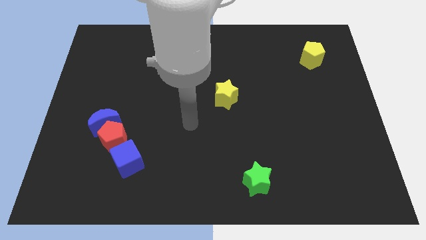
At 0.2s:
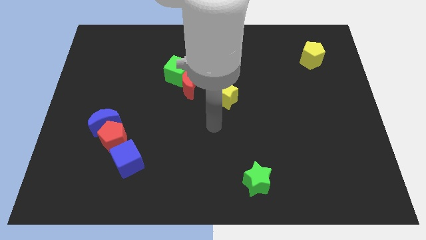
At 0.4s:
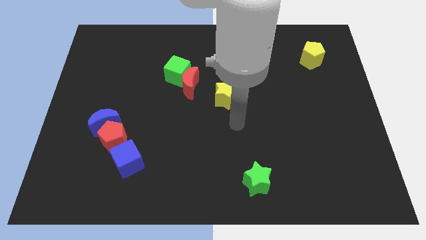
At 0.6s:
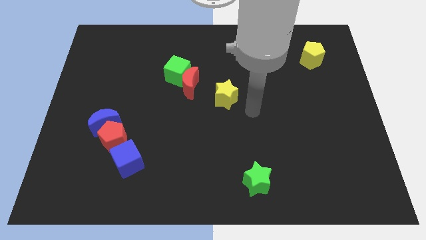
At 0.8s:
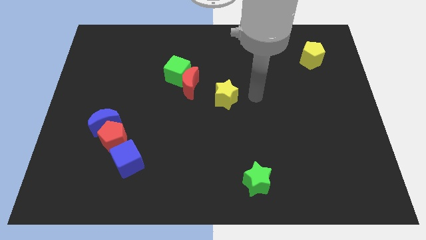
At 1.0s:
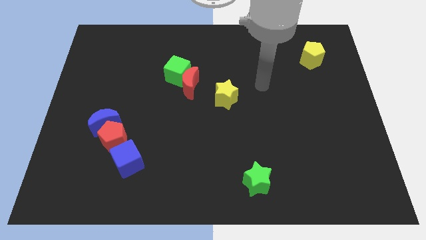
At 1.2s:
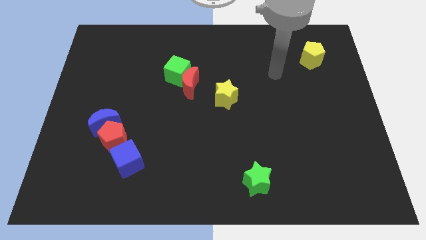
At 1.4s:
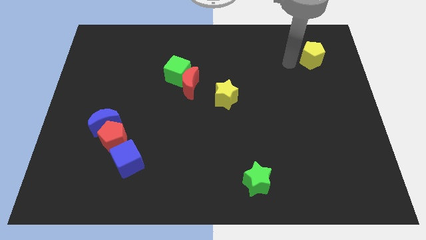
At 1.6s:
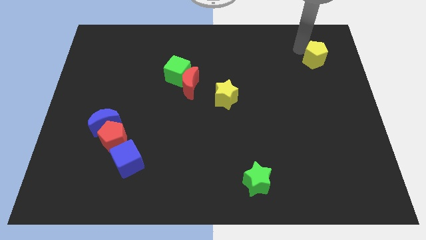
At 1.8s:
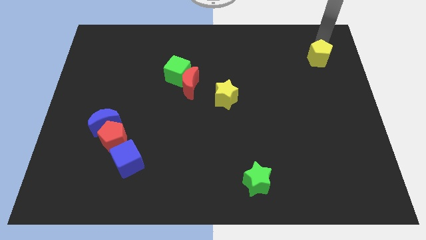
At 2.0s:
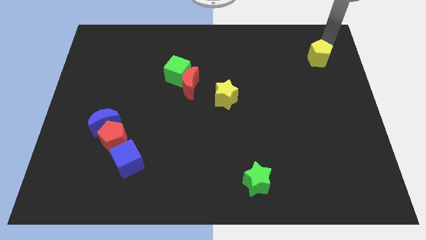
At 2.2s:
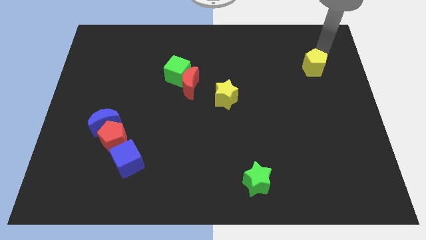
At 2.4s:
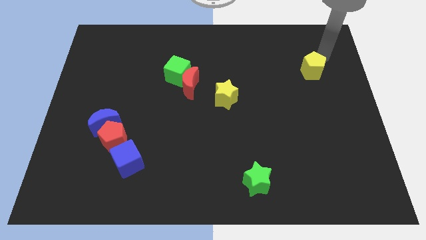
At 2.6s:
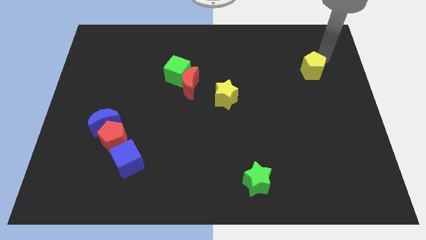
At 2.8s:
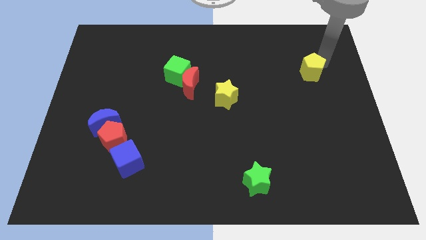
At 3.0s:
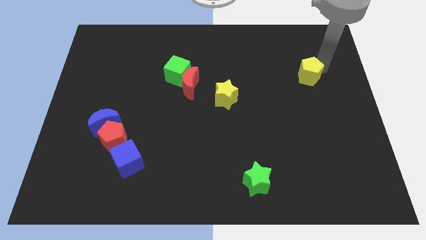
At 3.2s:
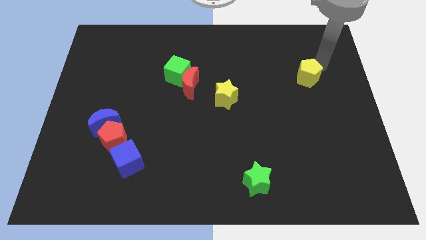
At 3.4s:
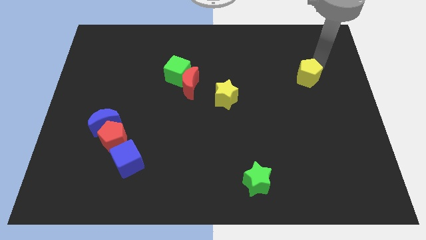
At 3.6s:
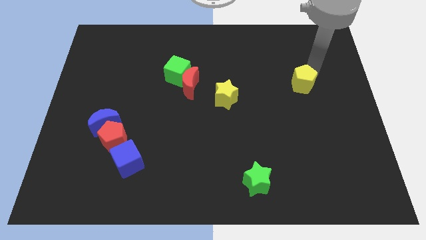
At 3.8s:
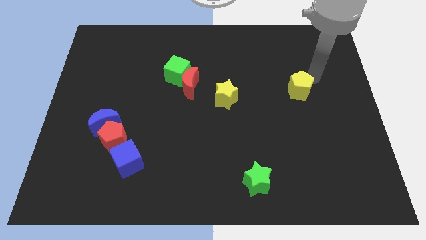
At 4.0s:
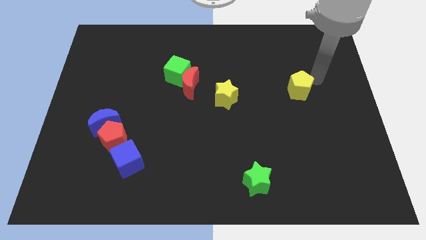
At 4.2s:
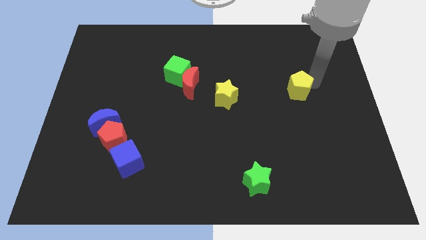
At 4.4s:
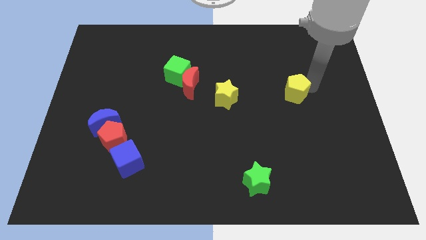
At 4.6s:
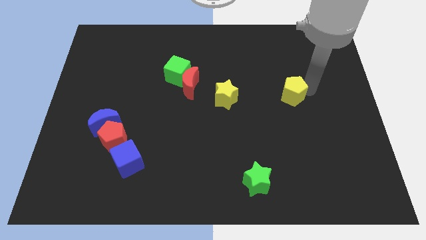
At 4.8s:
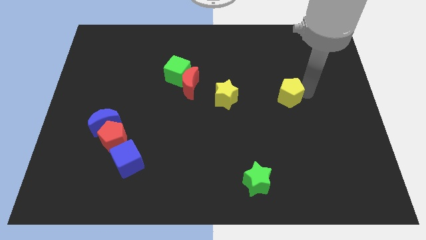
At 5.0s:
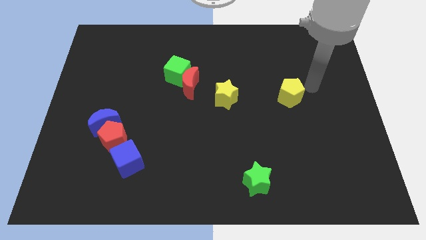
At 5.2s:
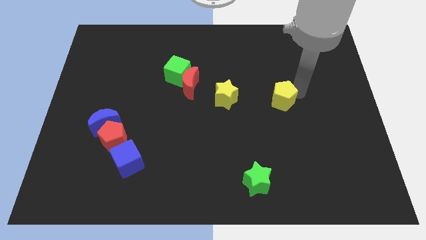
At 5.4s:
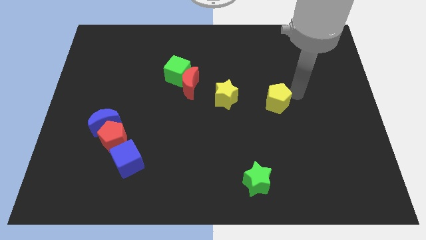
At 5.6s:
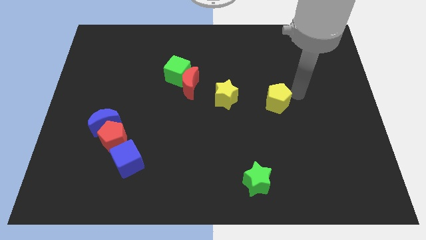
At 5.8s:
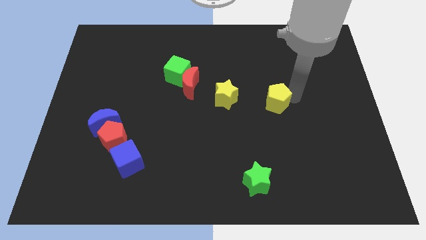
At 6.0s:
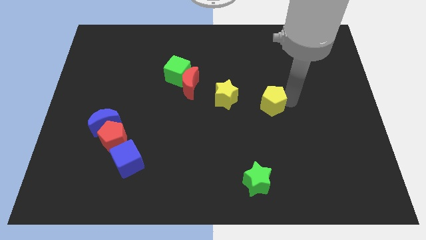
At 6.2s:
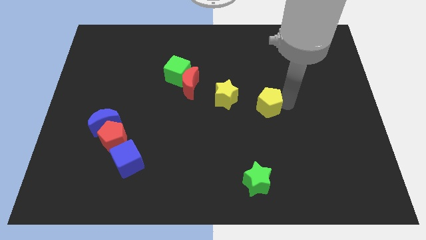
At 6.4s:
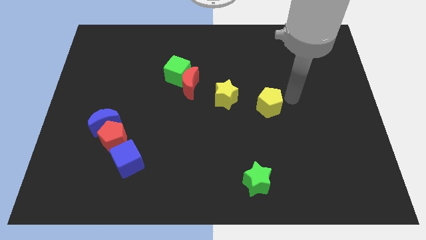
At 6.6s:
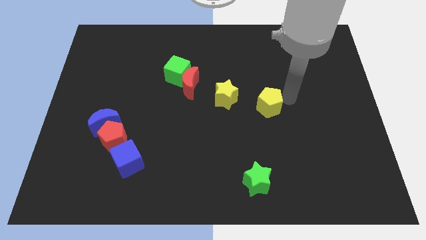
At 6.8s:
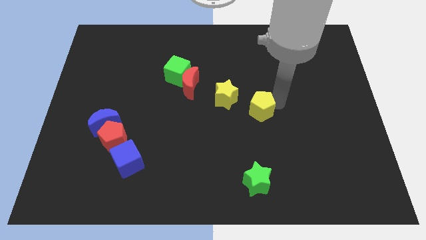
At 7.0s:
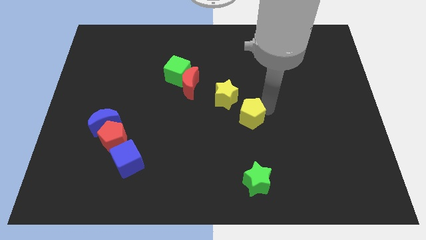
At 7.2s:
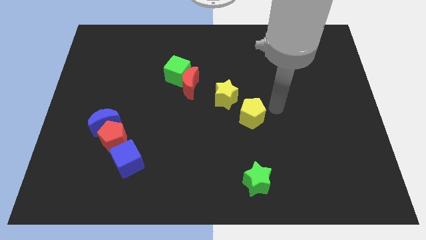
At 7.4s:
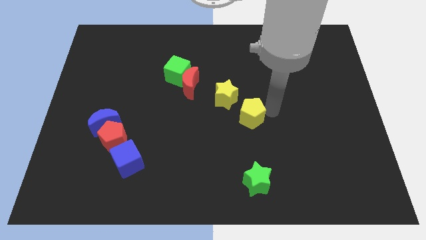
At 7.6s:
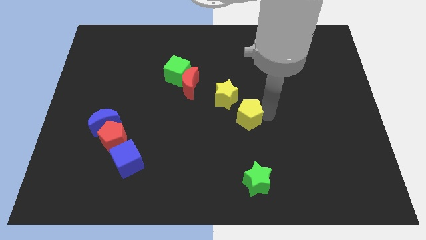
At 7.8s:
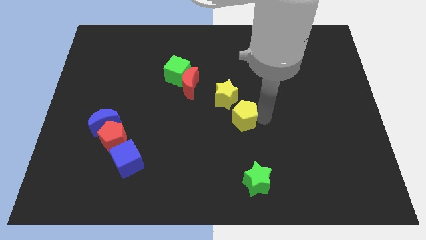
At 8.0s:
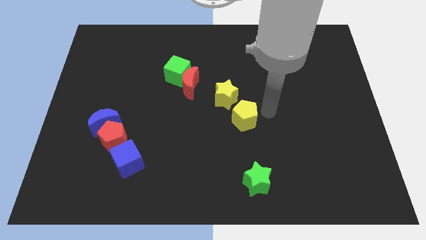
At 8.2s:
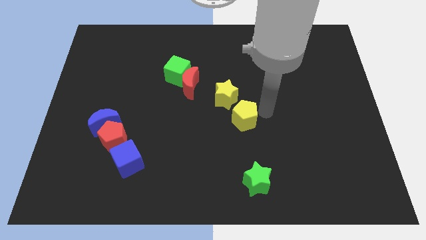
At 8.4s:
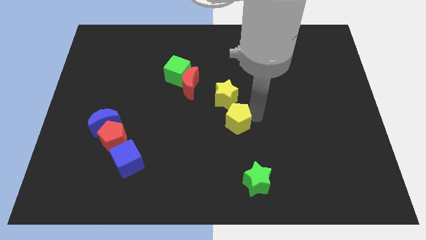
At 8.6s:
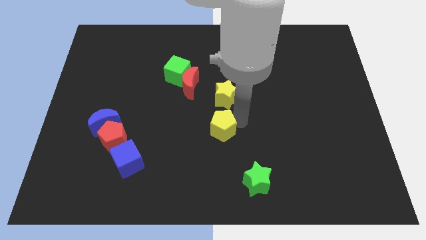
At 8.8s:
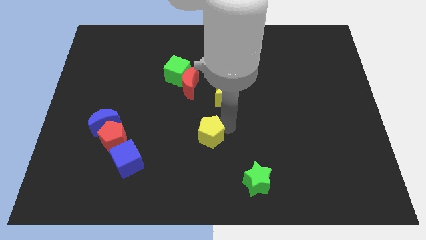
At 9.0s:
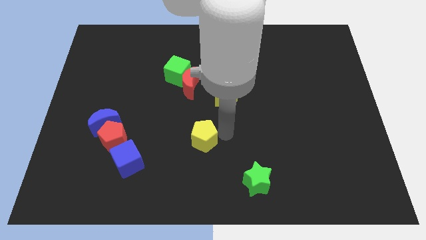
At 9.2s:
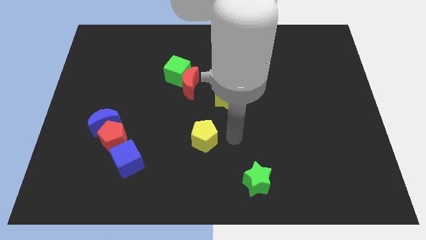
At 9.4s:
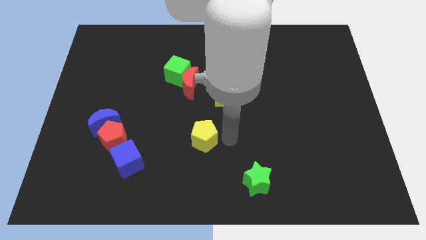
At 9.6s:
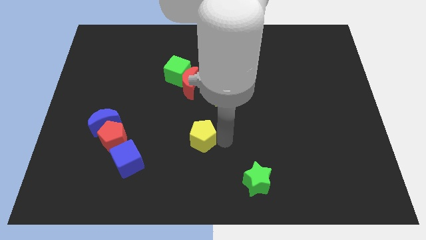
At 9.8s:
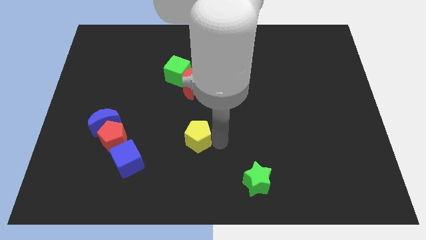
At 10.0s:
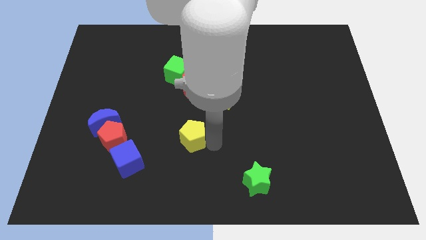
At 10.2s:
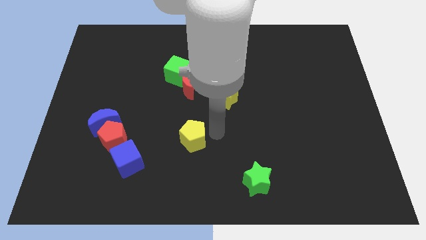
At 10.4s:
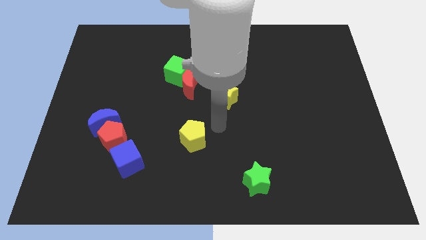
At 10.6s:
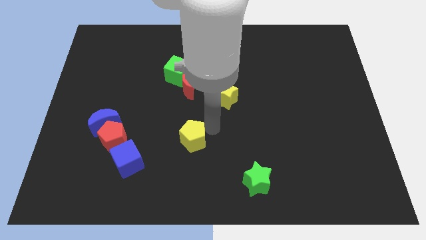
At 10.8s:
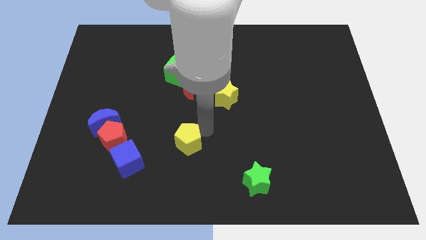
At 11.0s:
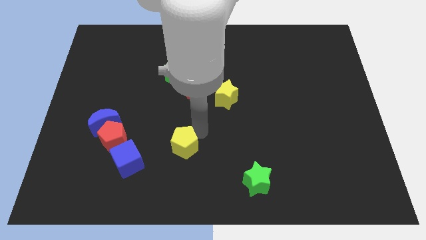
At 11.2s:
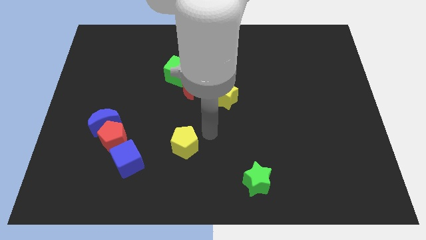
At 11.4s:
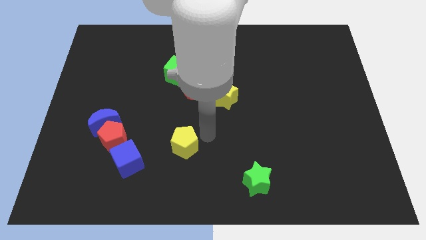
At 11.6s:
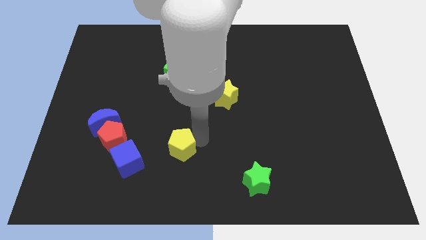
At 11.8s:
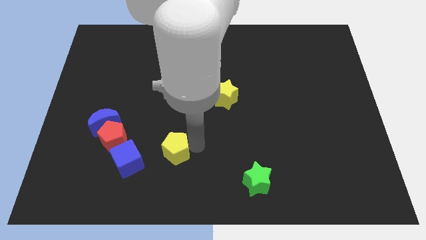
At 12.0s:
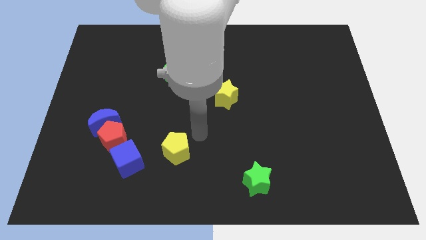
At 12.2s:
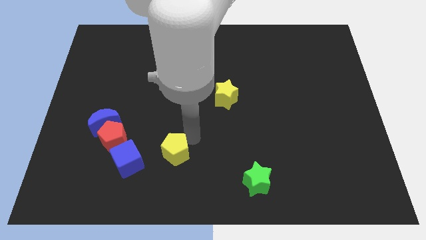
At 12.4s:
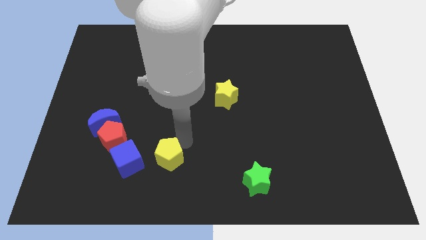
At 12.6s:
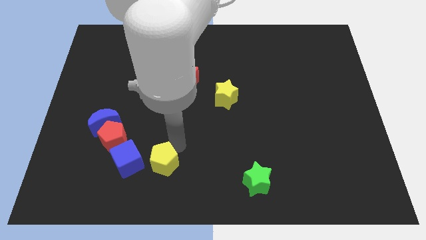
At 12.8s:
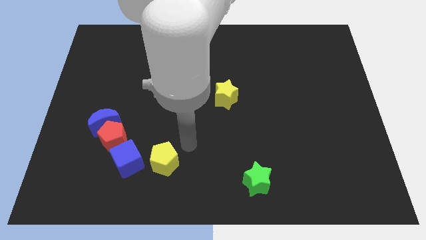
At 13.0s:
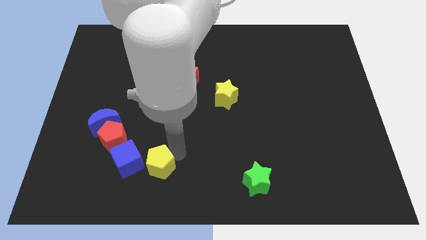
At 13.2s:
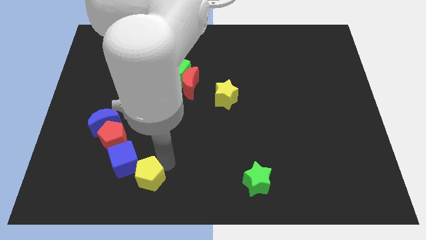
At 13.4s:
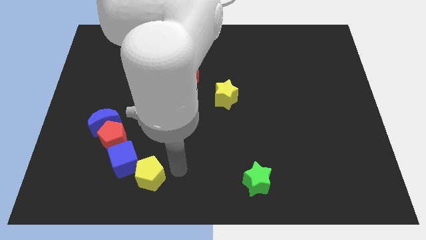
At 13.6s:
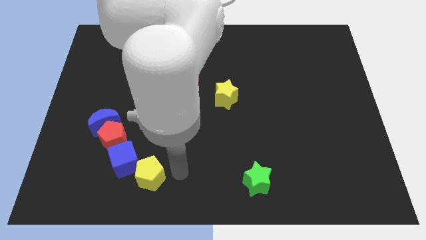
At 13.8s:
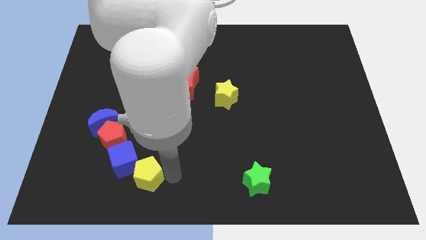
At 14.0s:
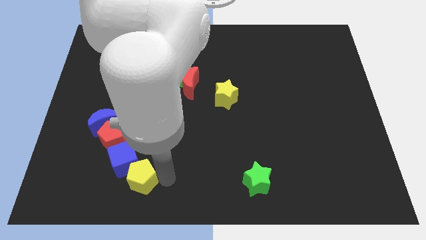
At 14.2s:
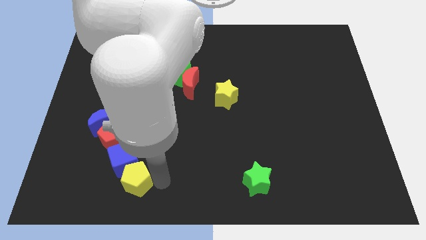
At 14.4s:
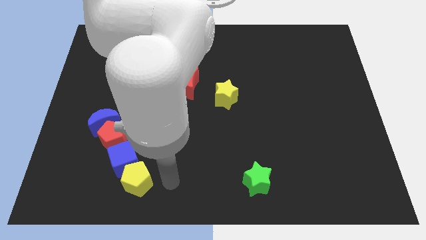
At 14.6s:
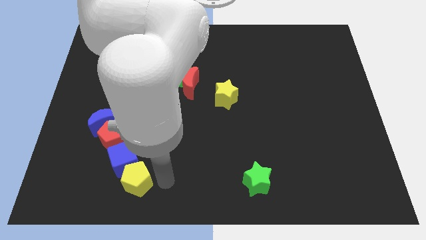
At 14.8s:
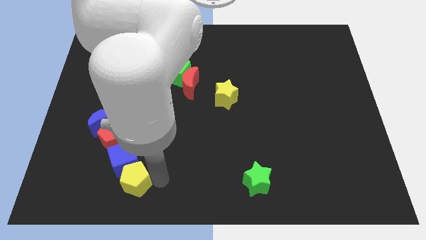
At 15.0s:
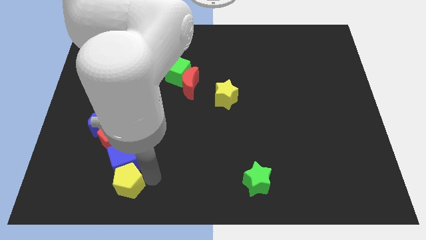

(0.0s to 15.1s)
put the yellow pentagon to the bottom left of the blue cube
